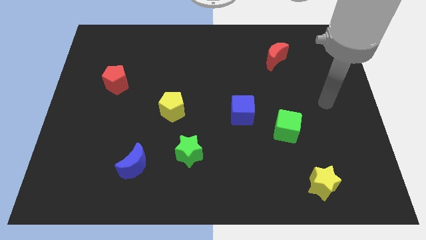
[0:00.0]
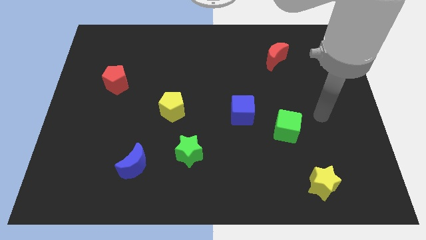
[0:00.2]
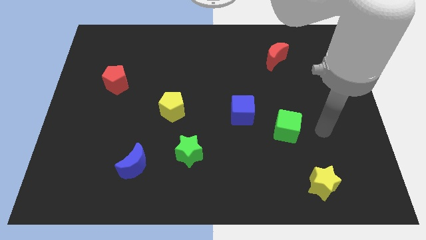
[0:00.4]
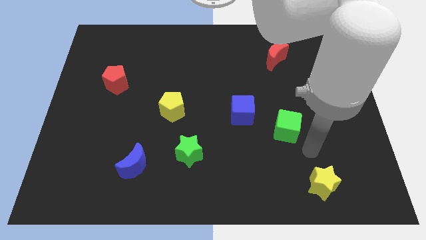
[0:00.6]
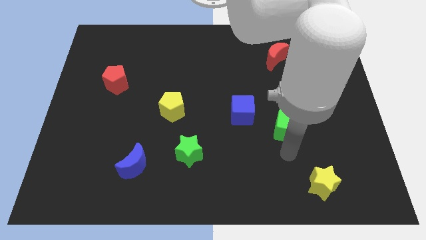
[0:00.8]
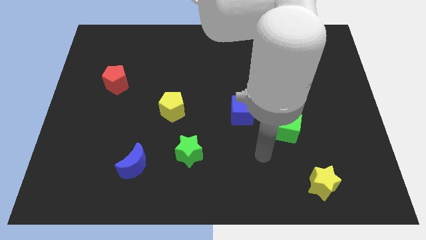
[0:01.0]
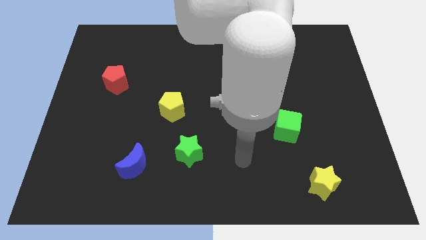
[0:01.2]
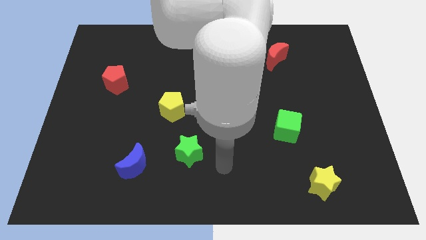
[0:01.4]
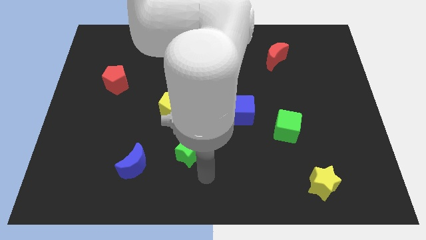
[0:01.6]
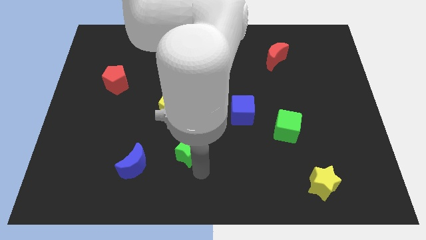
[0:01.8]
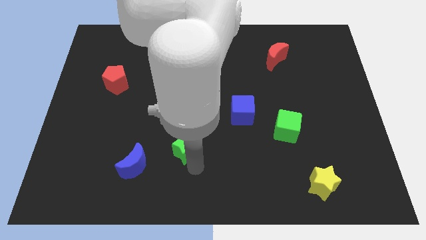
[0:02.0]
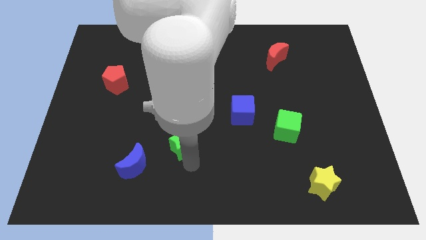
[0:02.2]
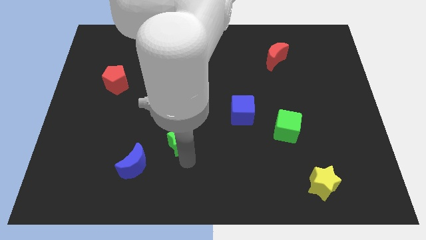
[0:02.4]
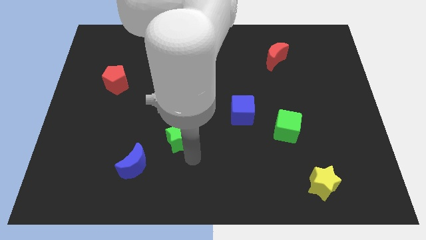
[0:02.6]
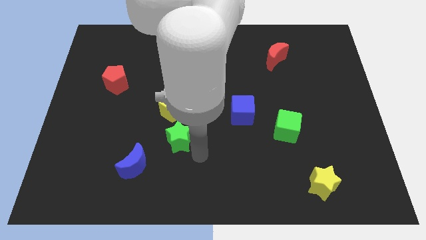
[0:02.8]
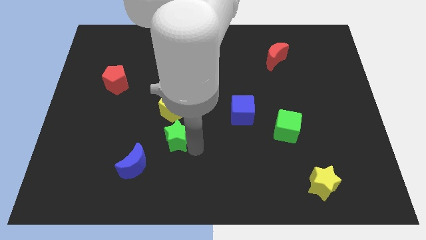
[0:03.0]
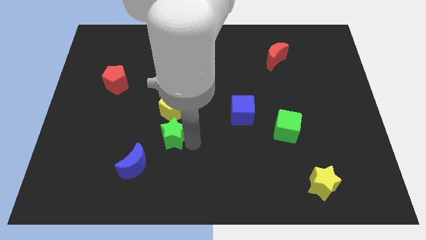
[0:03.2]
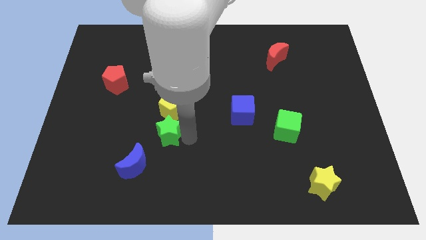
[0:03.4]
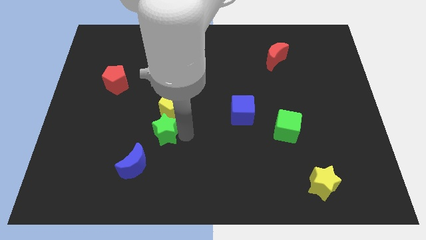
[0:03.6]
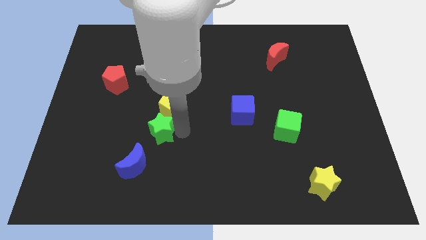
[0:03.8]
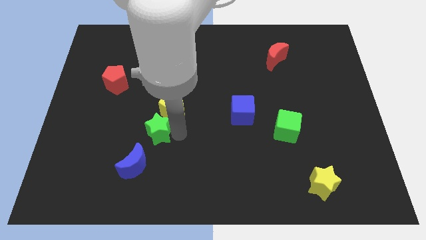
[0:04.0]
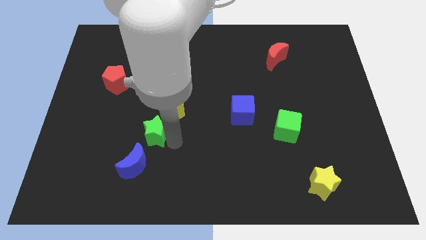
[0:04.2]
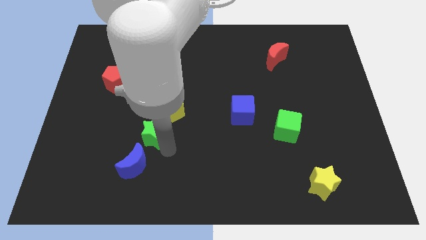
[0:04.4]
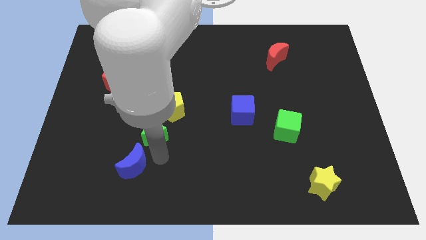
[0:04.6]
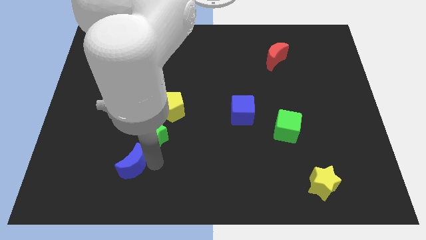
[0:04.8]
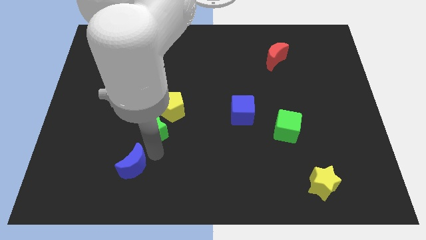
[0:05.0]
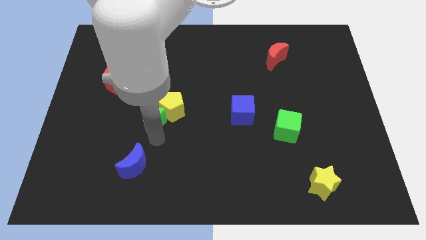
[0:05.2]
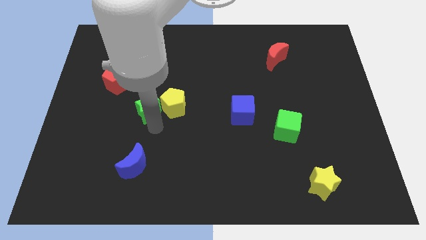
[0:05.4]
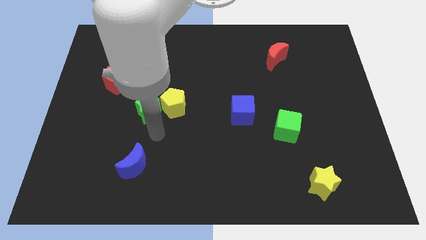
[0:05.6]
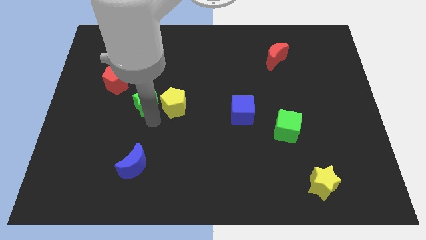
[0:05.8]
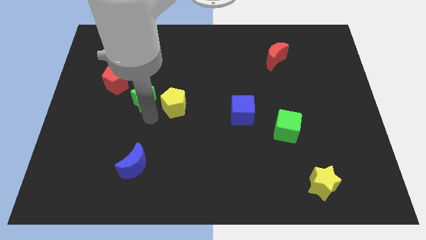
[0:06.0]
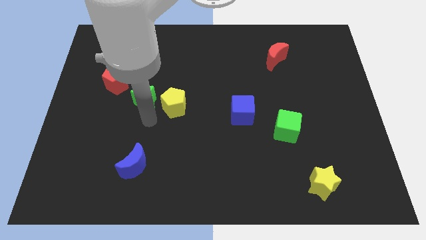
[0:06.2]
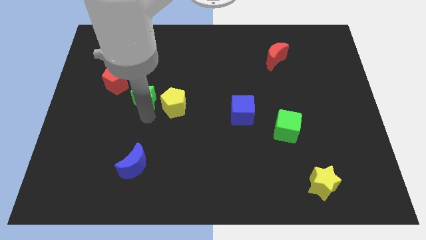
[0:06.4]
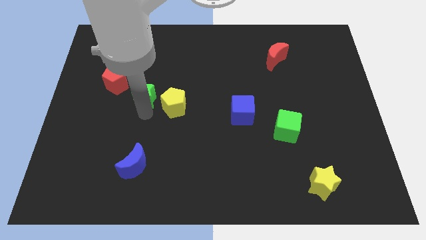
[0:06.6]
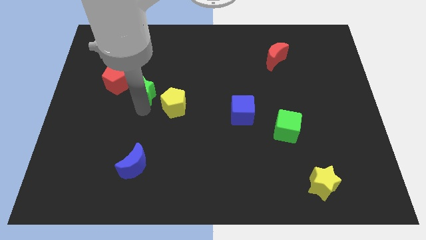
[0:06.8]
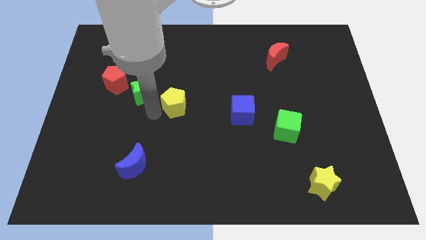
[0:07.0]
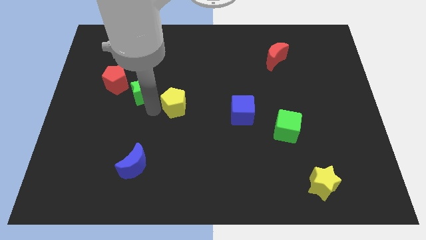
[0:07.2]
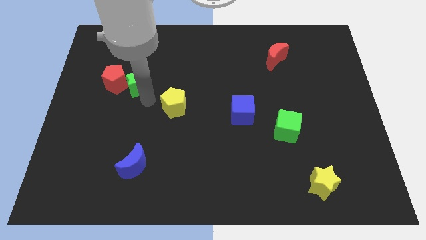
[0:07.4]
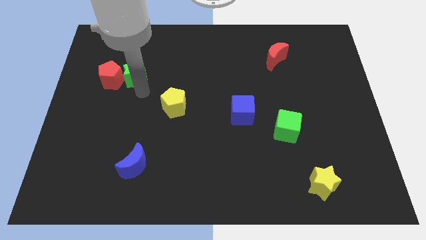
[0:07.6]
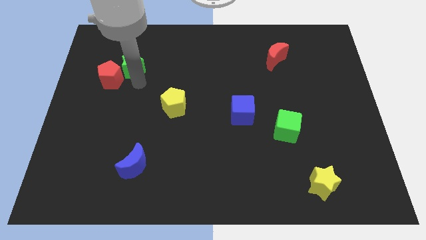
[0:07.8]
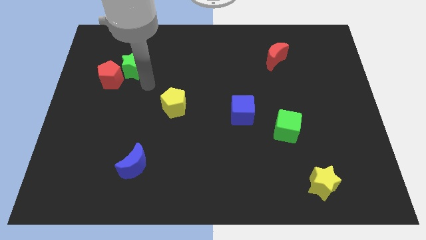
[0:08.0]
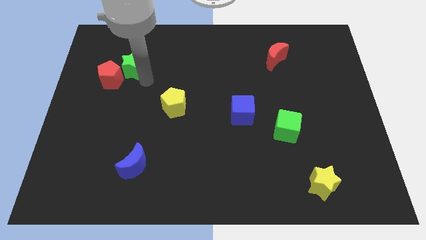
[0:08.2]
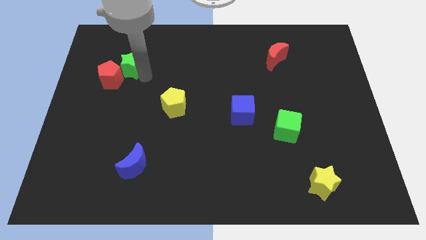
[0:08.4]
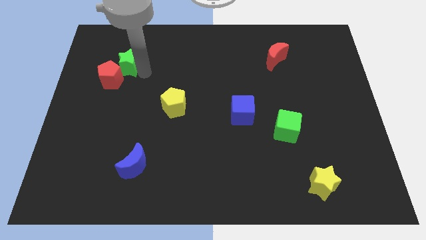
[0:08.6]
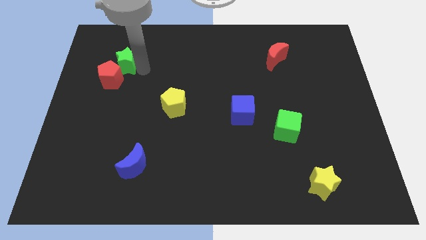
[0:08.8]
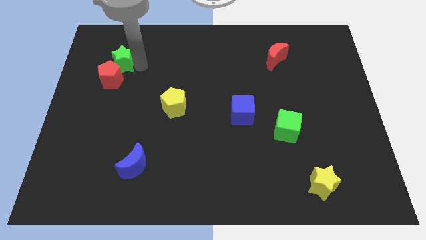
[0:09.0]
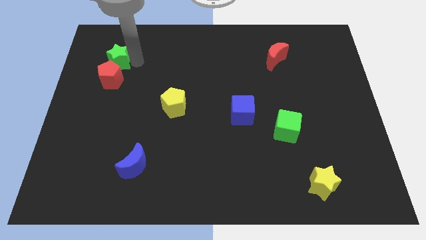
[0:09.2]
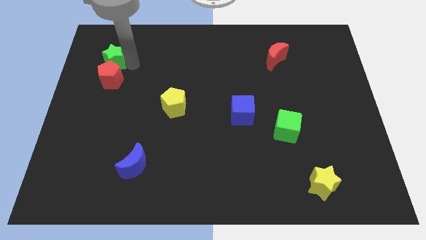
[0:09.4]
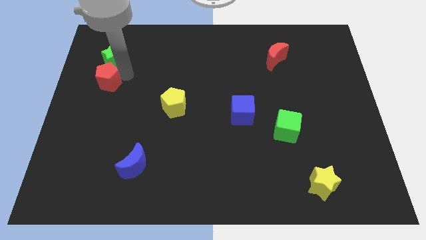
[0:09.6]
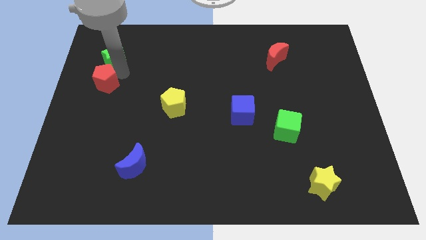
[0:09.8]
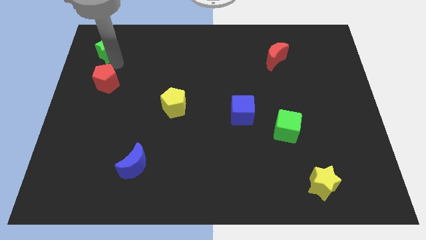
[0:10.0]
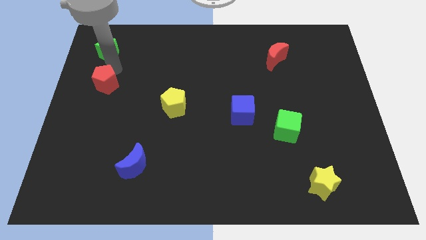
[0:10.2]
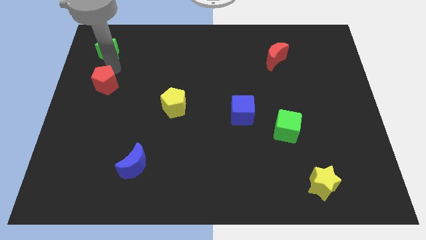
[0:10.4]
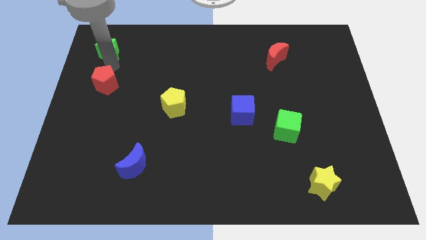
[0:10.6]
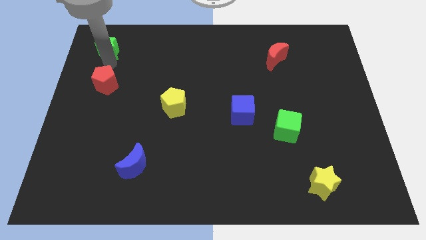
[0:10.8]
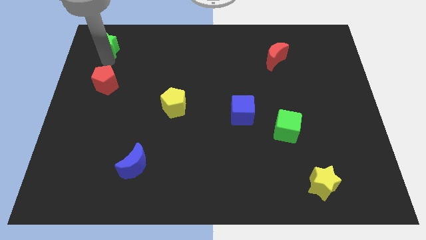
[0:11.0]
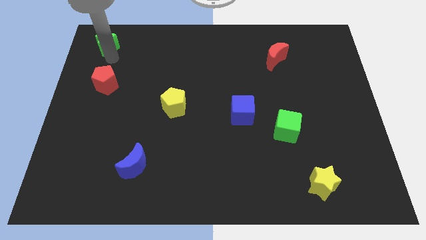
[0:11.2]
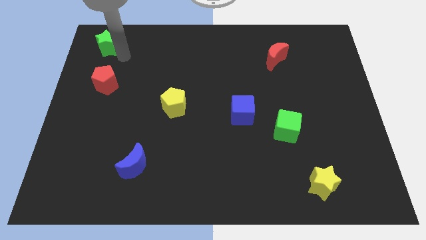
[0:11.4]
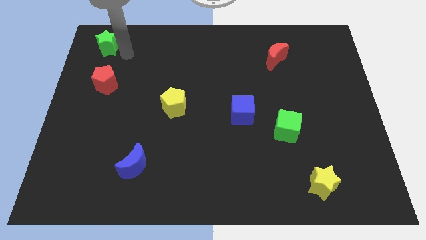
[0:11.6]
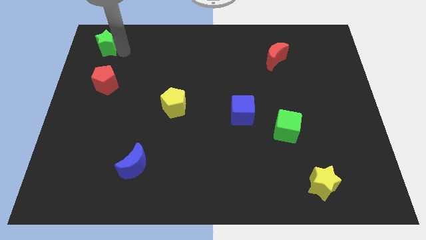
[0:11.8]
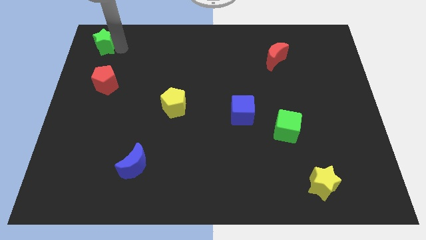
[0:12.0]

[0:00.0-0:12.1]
put the green star to the upper left corner
